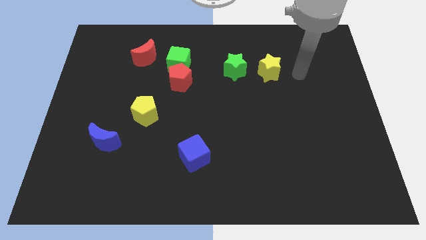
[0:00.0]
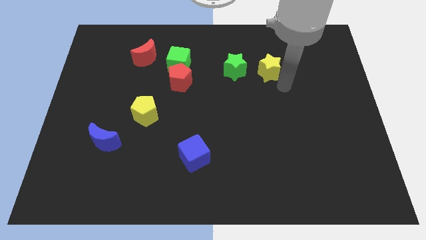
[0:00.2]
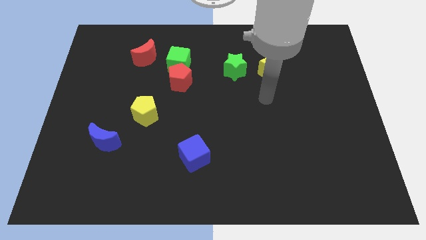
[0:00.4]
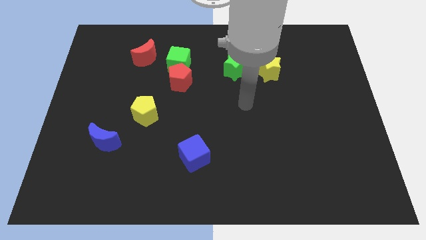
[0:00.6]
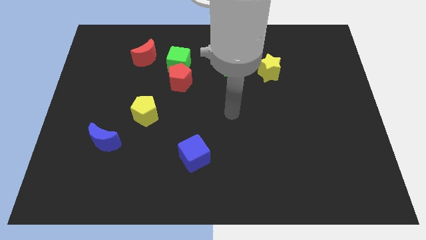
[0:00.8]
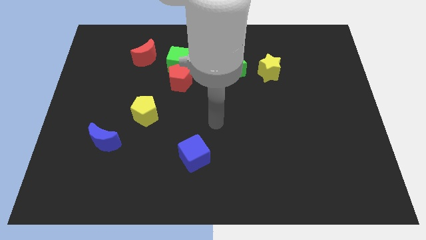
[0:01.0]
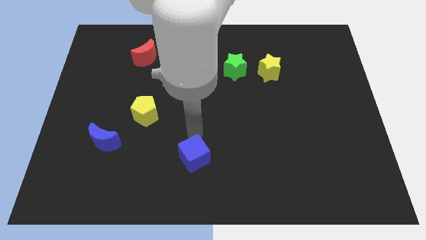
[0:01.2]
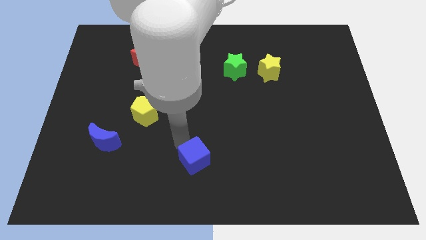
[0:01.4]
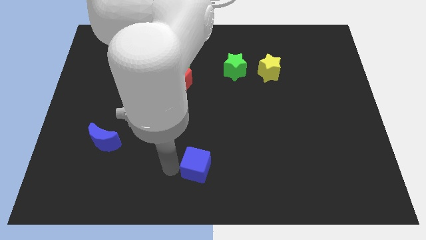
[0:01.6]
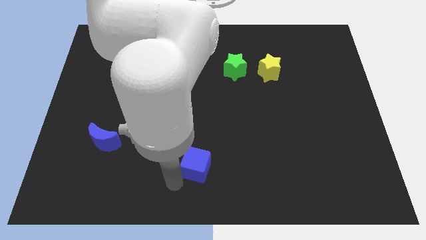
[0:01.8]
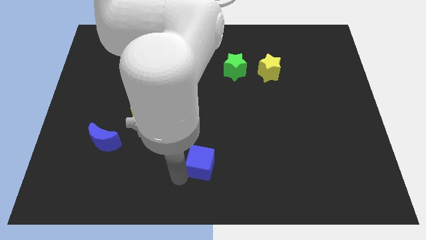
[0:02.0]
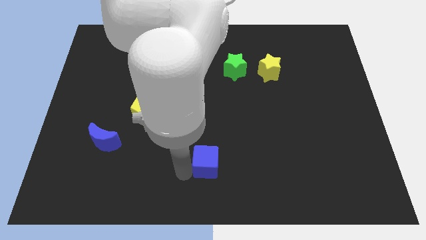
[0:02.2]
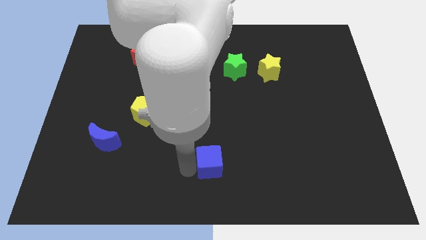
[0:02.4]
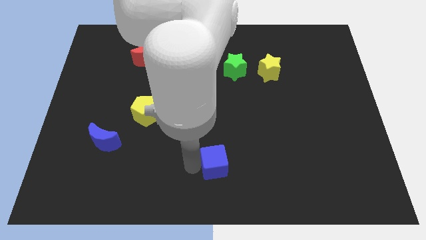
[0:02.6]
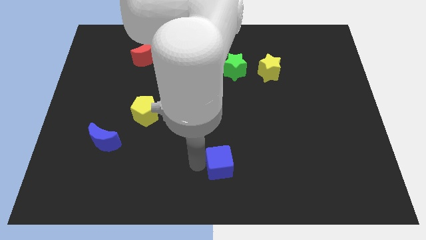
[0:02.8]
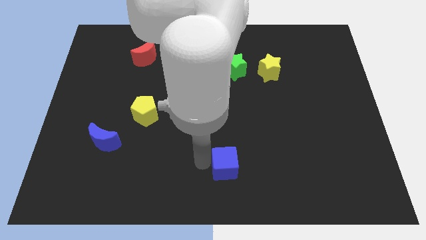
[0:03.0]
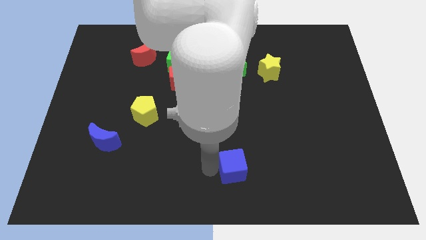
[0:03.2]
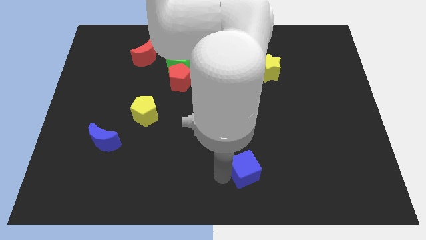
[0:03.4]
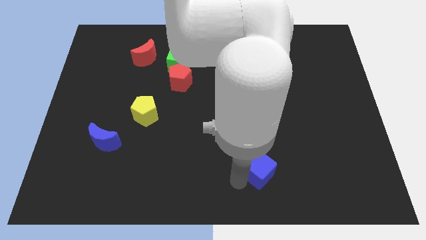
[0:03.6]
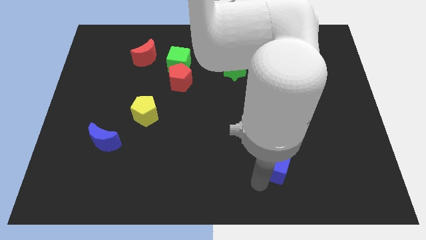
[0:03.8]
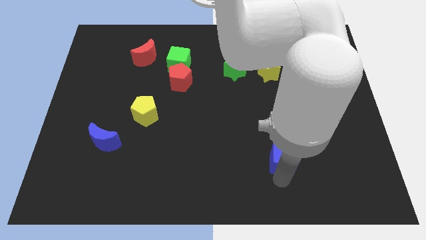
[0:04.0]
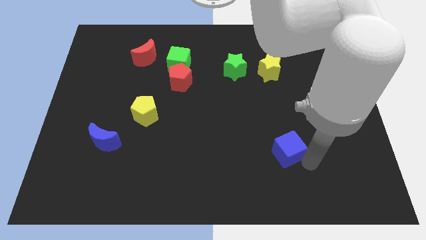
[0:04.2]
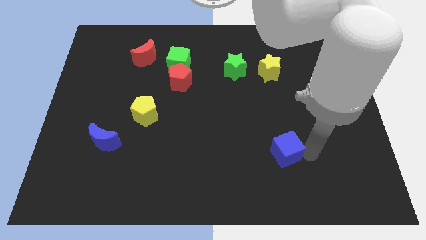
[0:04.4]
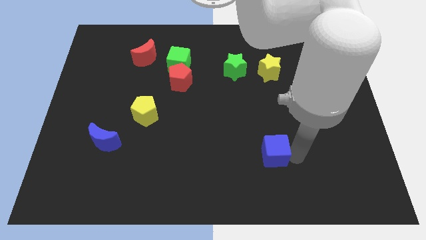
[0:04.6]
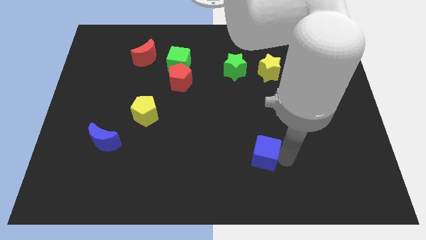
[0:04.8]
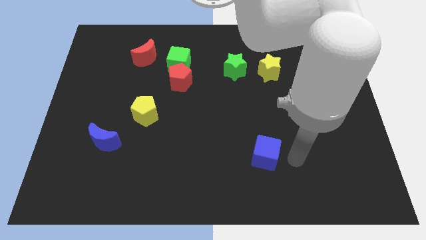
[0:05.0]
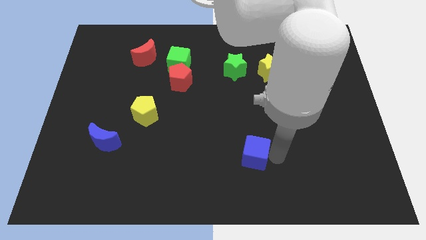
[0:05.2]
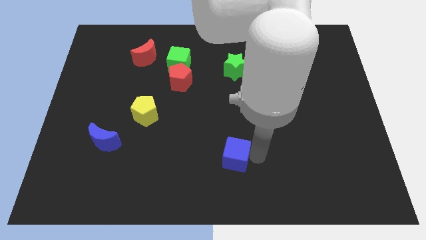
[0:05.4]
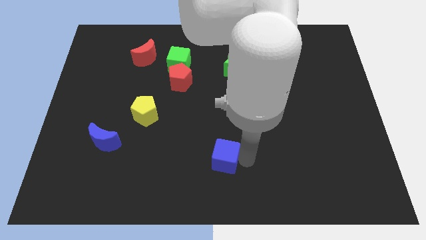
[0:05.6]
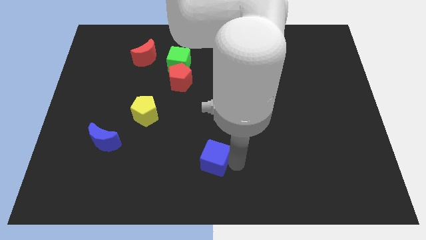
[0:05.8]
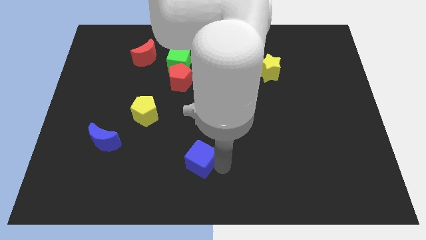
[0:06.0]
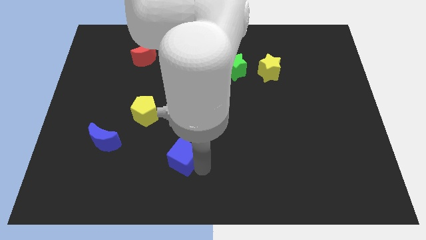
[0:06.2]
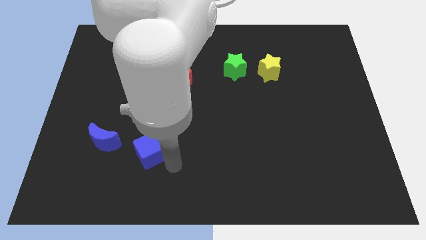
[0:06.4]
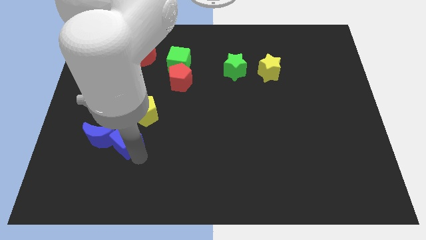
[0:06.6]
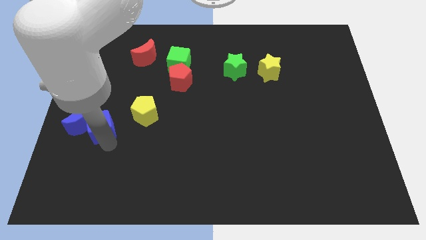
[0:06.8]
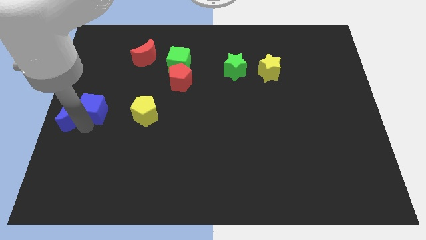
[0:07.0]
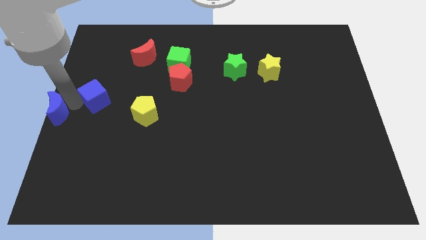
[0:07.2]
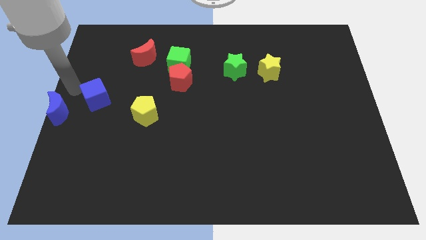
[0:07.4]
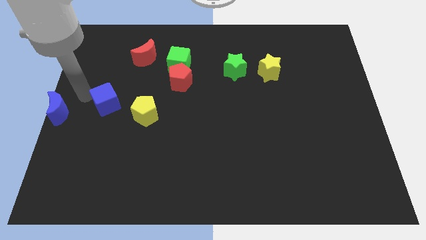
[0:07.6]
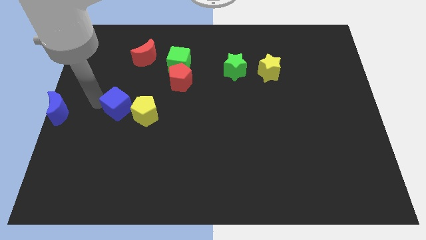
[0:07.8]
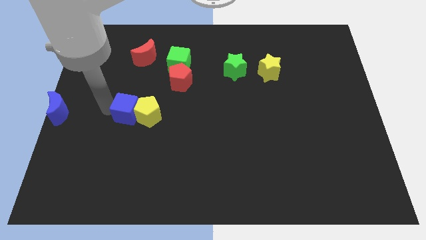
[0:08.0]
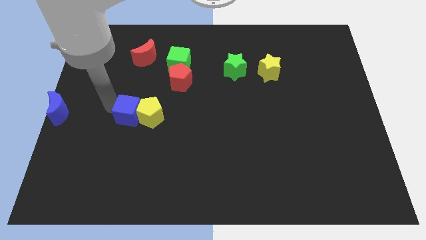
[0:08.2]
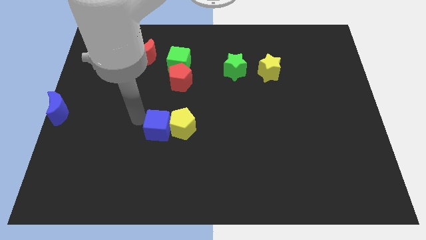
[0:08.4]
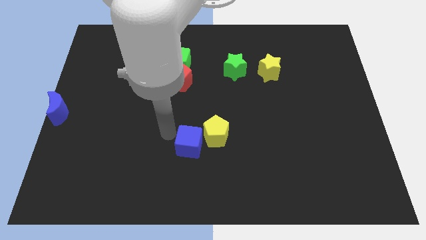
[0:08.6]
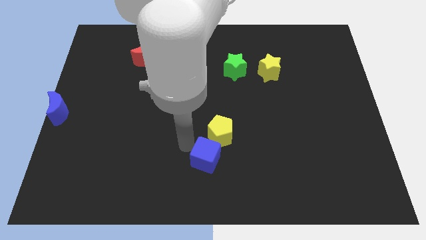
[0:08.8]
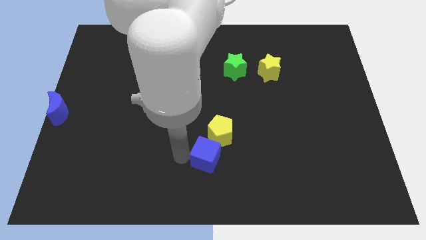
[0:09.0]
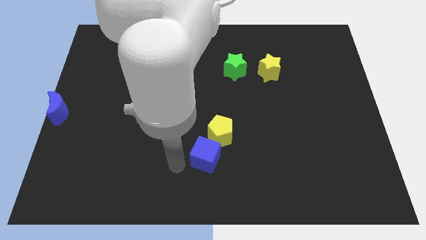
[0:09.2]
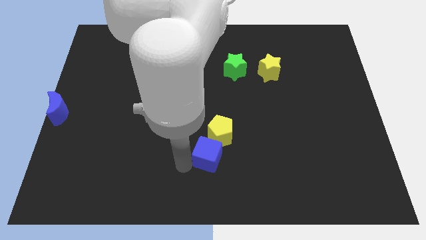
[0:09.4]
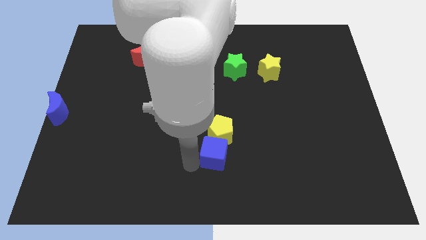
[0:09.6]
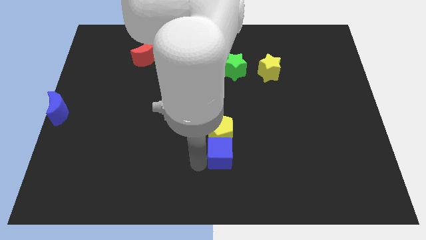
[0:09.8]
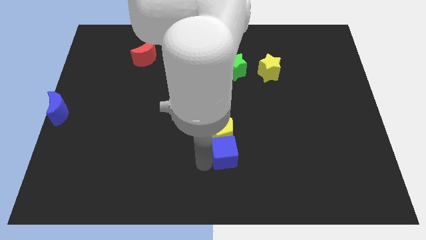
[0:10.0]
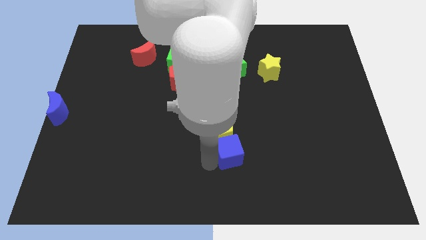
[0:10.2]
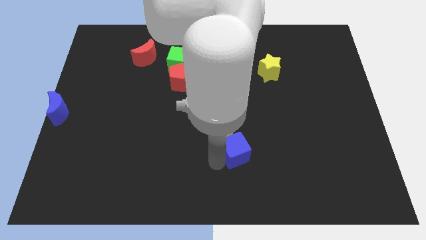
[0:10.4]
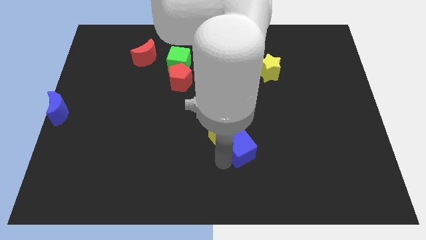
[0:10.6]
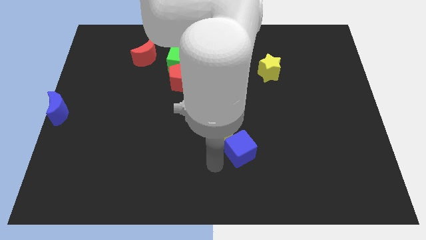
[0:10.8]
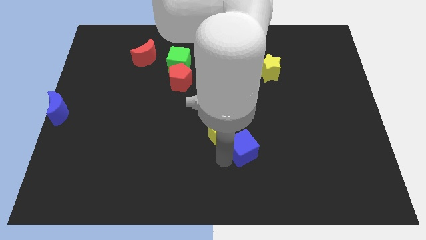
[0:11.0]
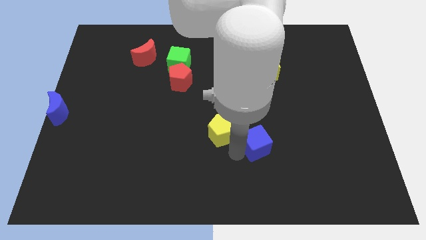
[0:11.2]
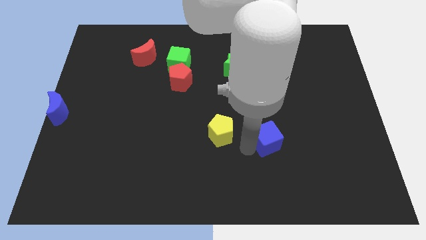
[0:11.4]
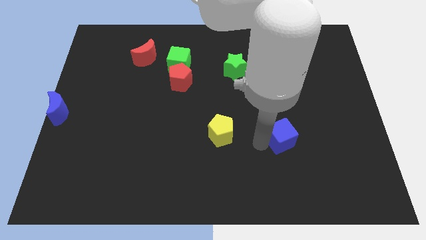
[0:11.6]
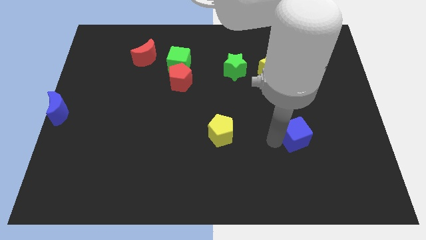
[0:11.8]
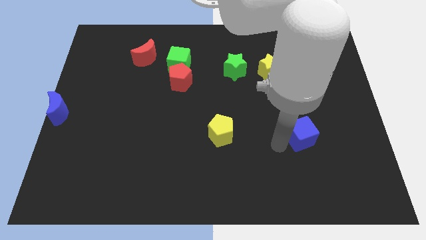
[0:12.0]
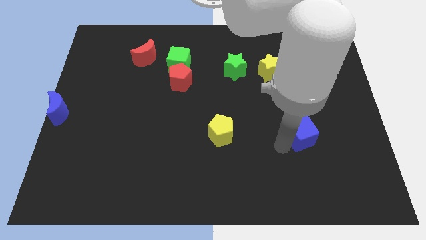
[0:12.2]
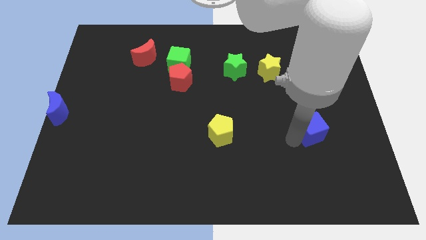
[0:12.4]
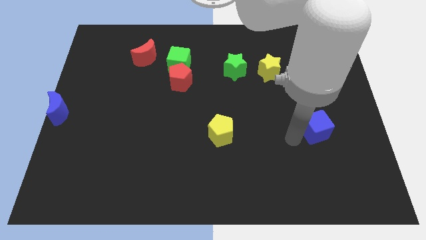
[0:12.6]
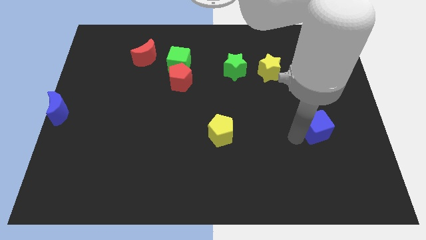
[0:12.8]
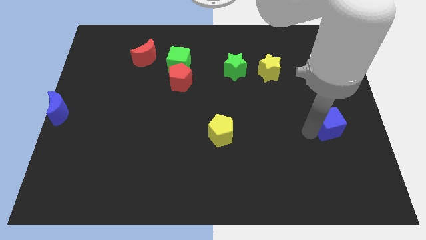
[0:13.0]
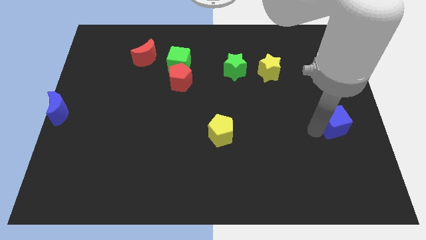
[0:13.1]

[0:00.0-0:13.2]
move the blue cube to the center right
